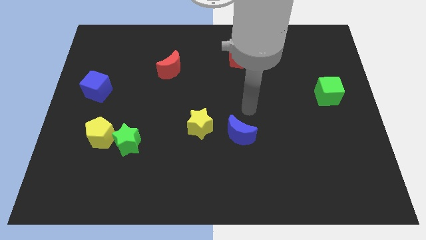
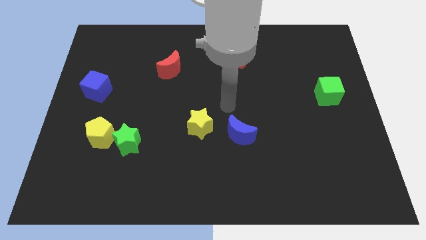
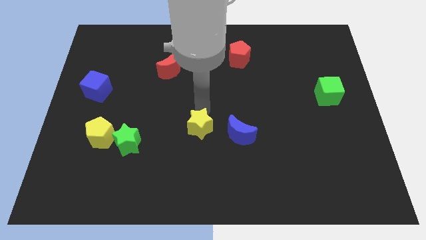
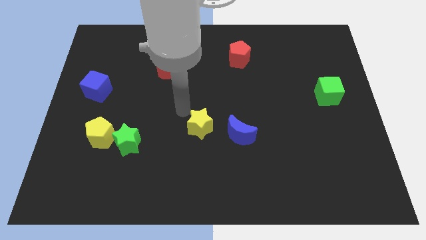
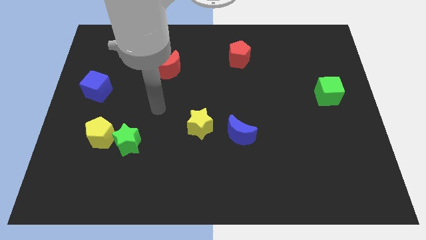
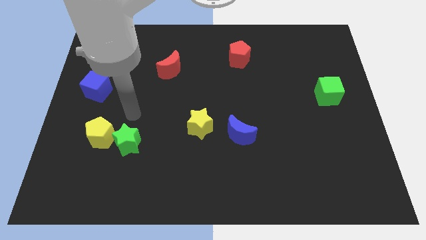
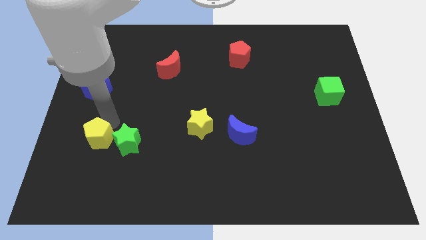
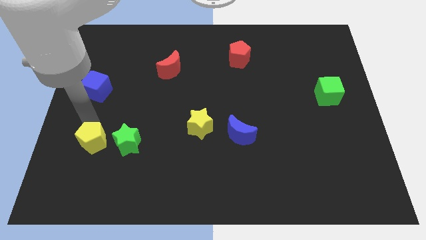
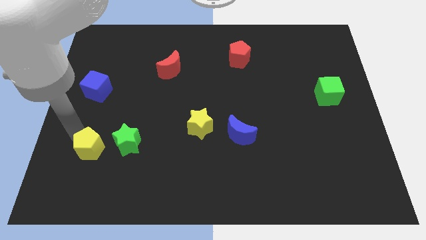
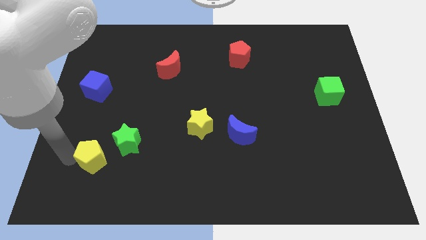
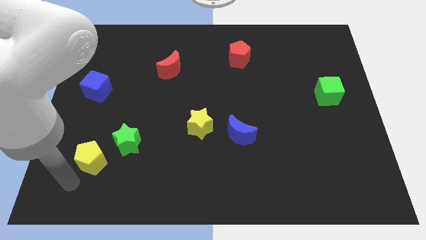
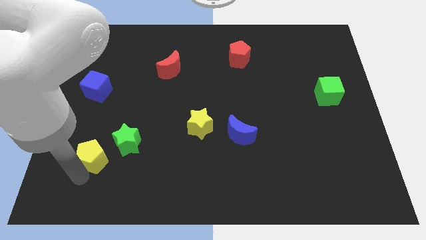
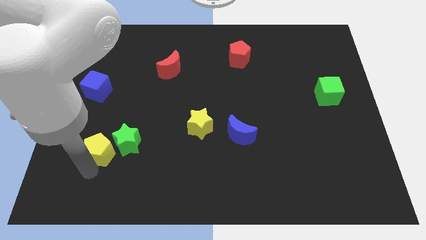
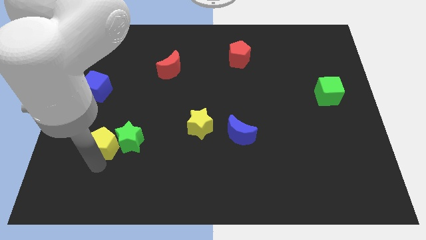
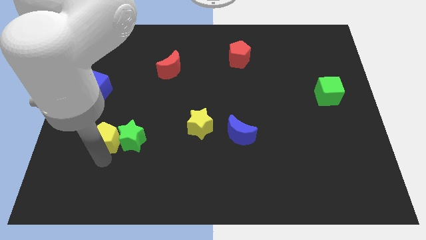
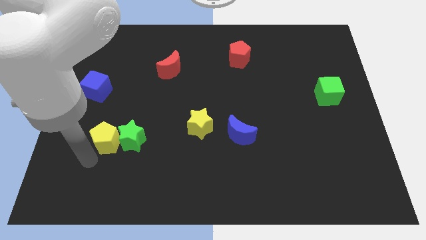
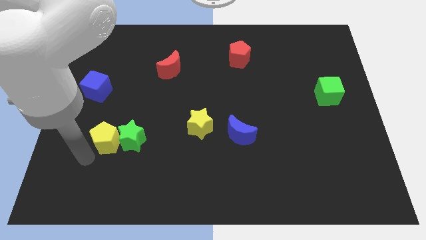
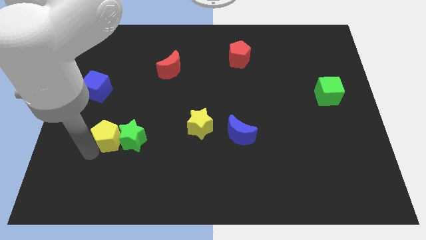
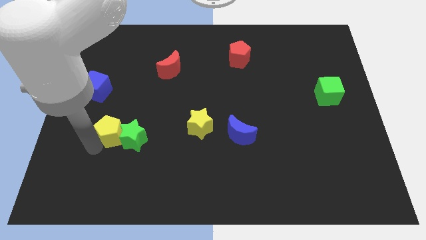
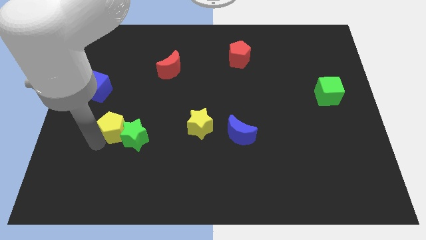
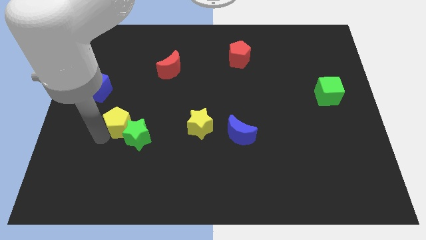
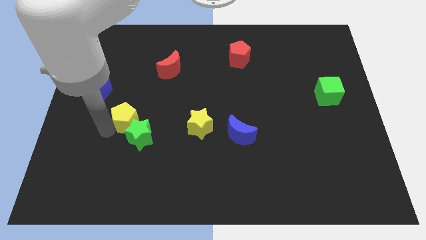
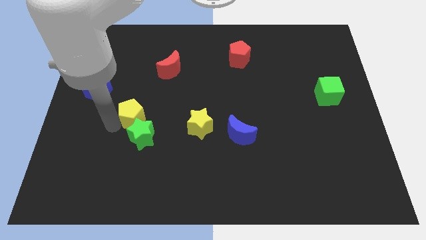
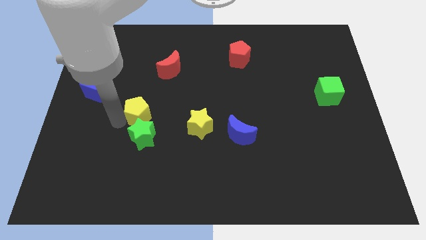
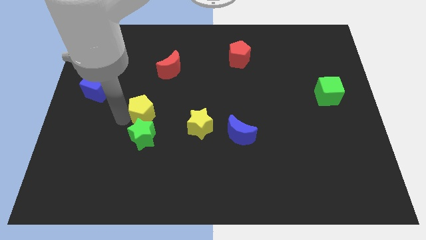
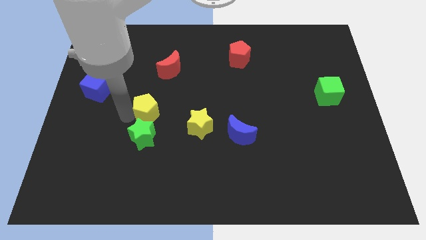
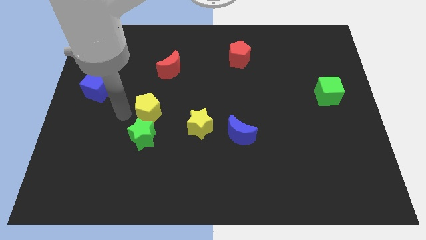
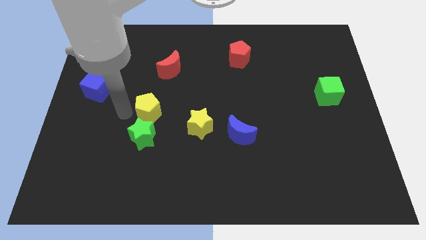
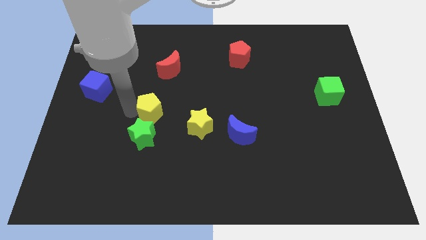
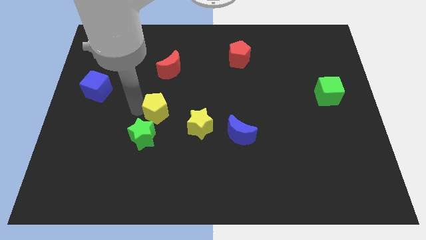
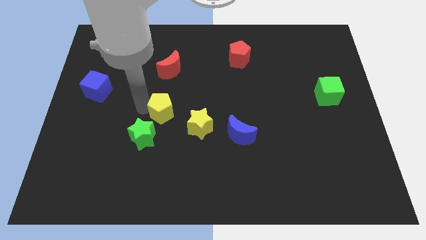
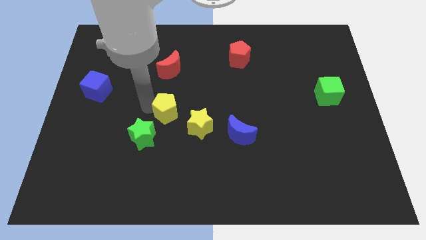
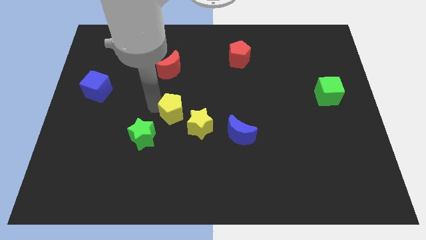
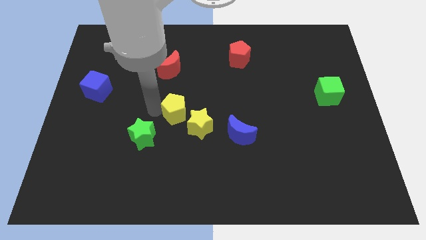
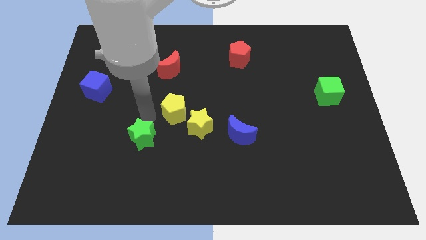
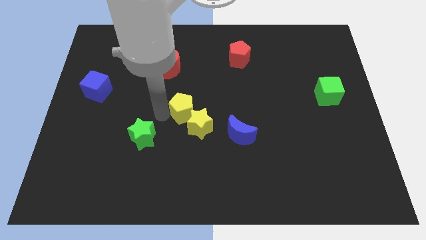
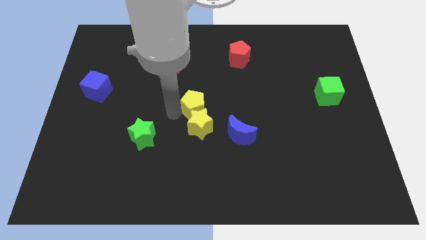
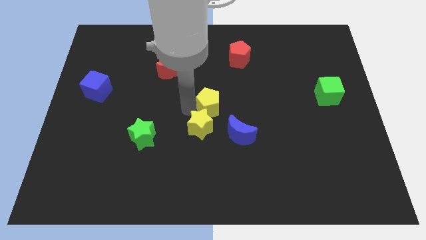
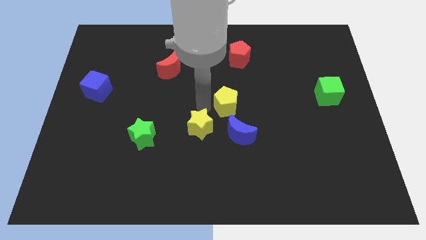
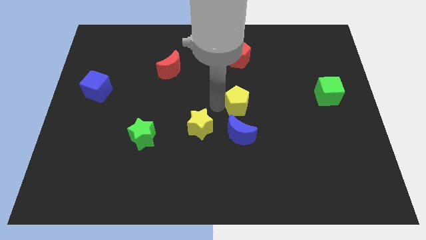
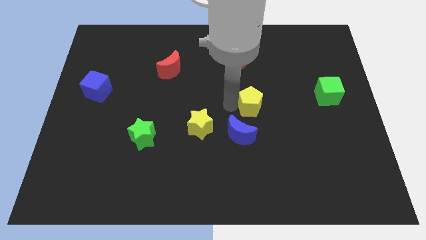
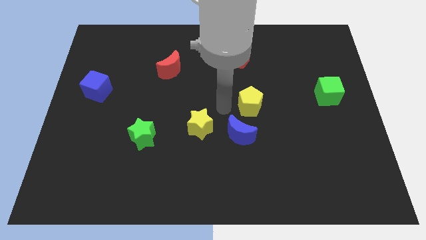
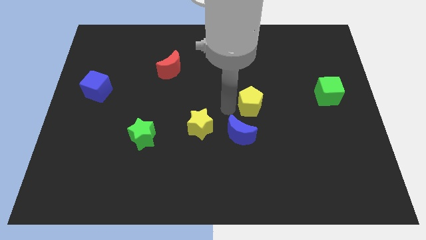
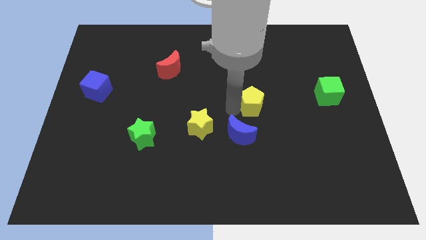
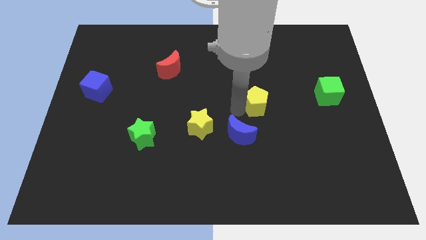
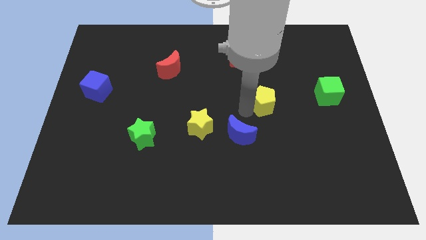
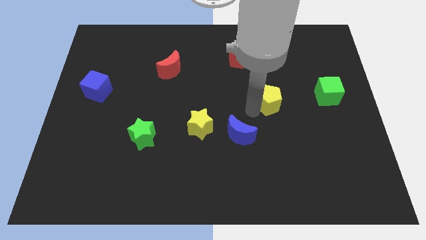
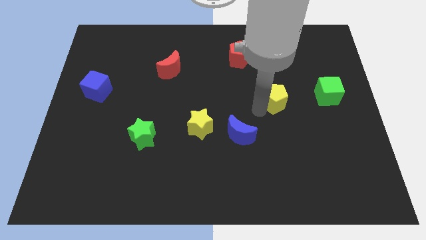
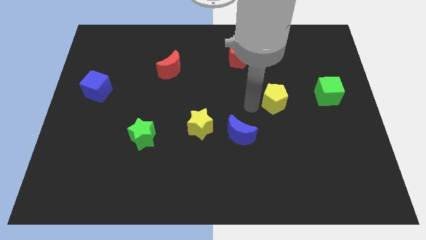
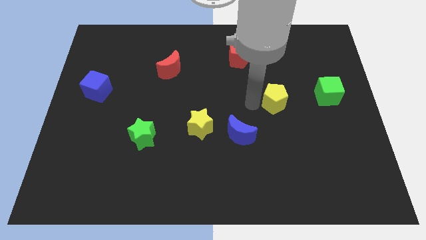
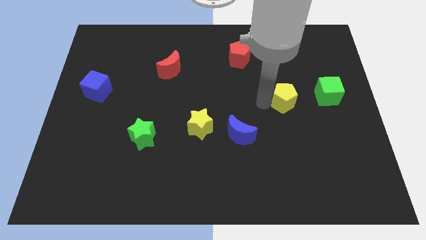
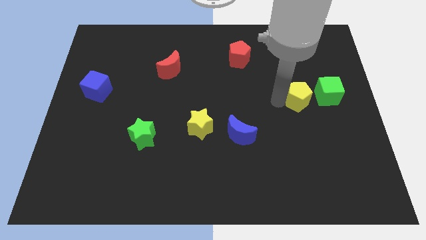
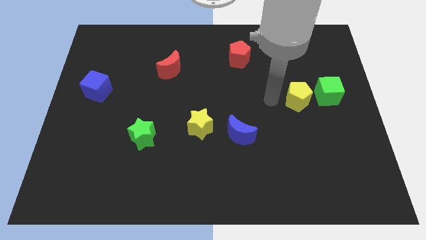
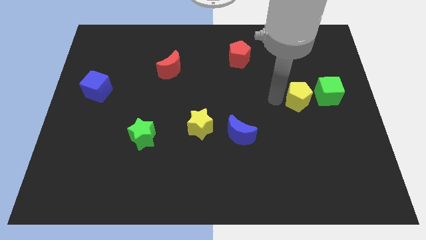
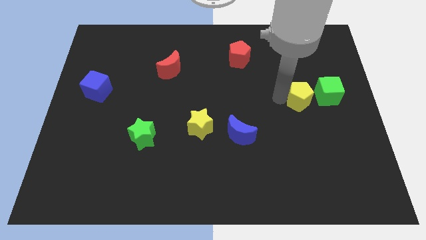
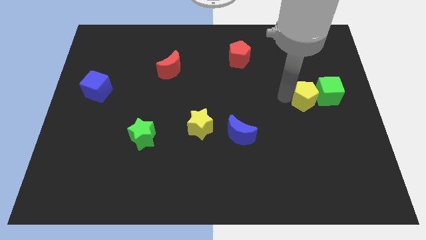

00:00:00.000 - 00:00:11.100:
push the yellow pentagon close to the green cube

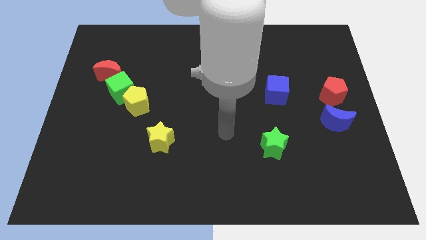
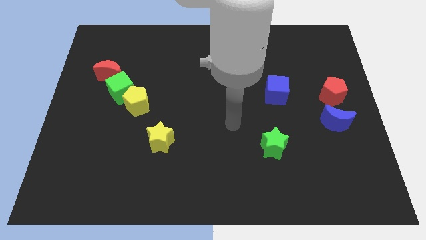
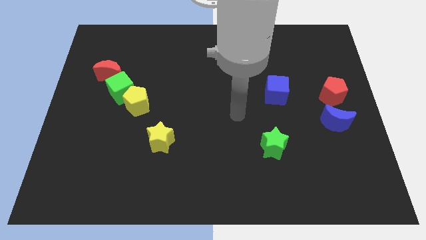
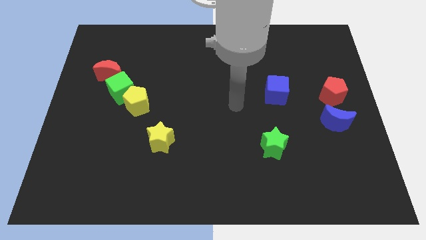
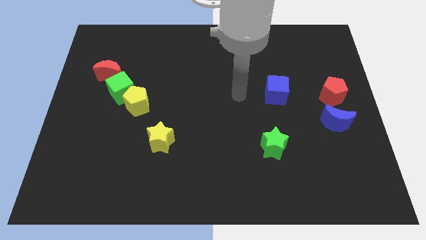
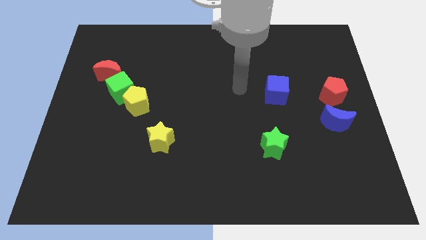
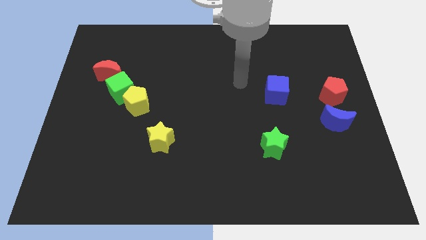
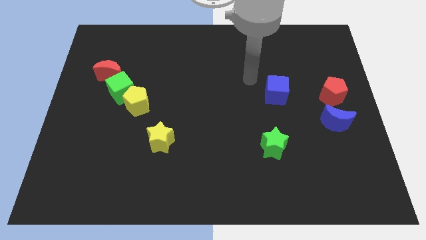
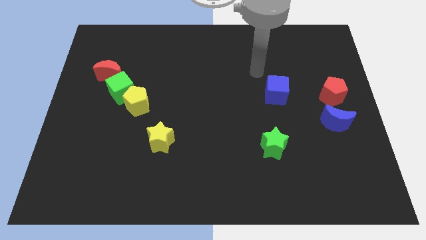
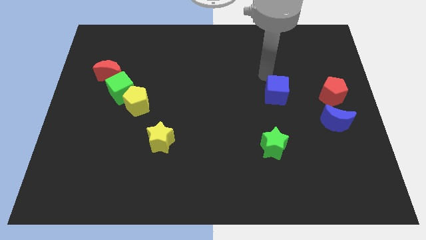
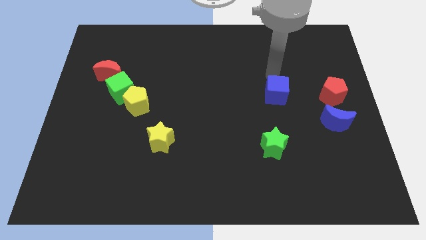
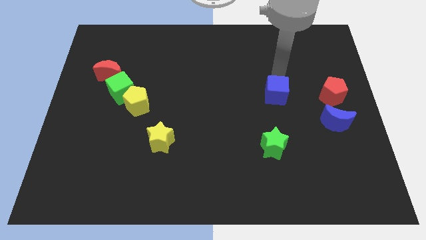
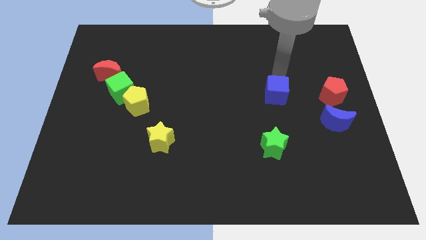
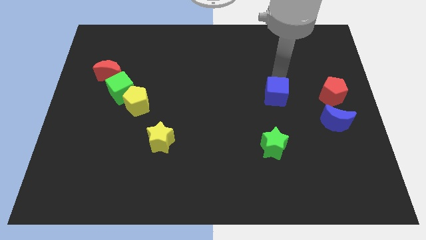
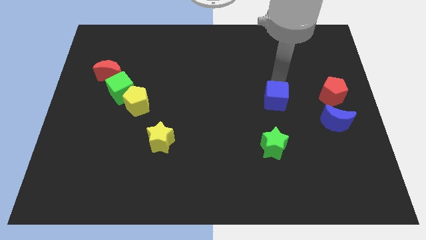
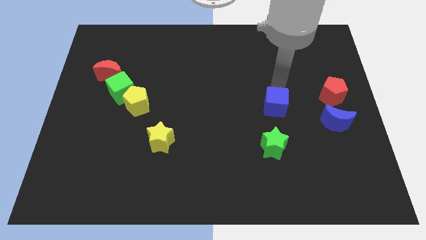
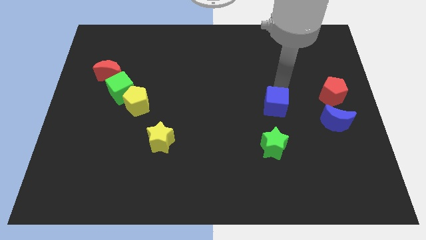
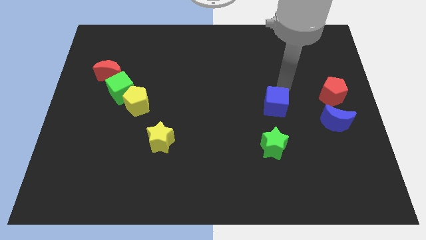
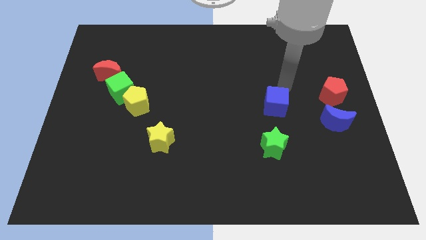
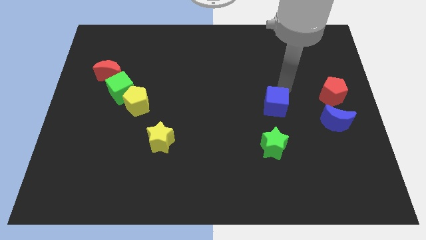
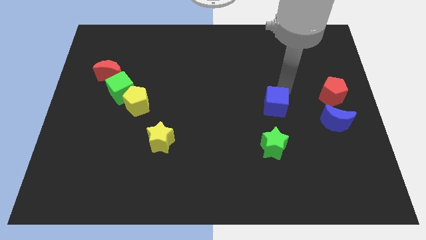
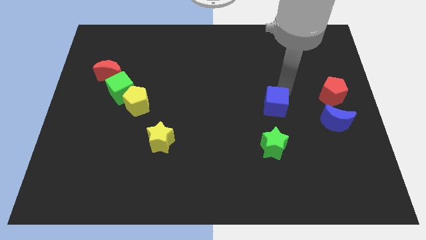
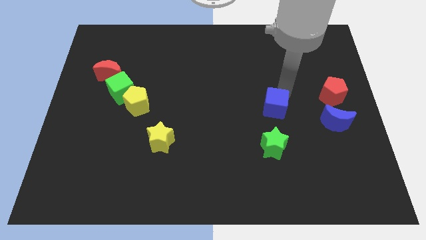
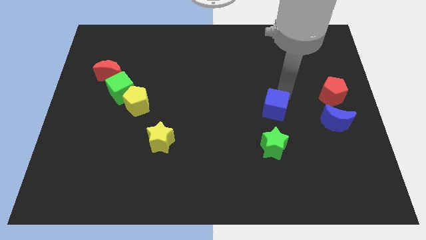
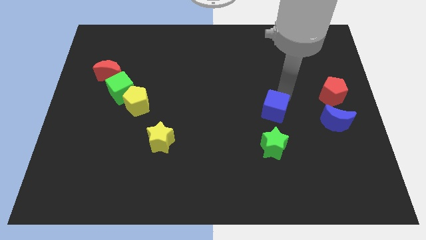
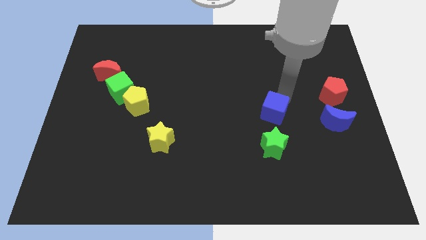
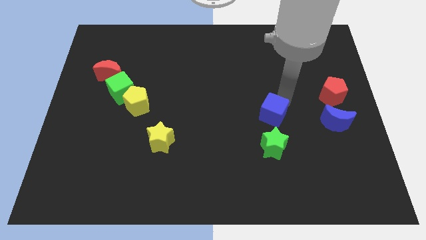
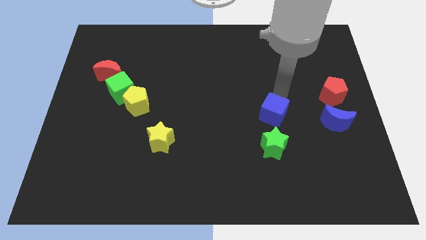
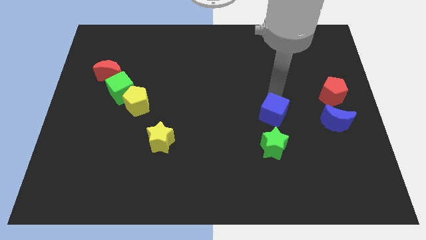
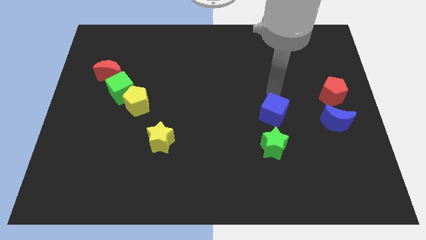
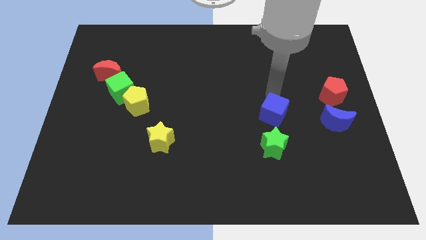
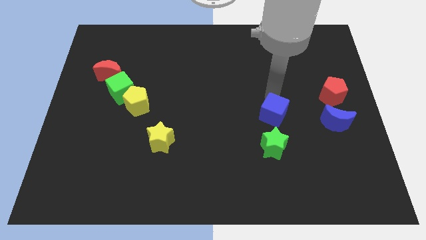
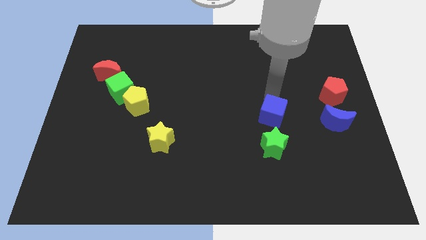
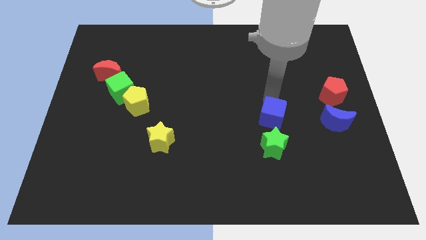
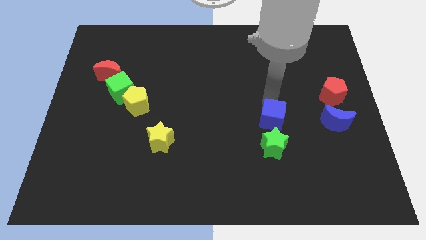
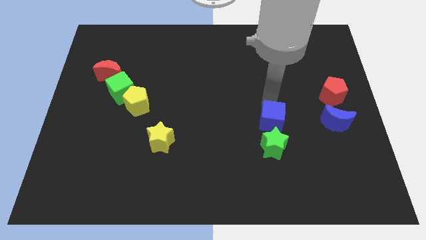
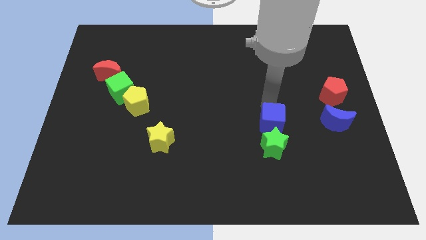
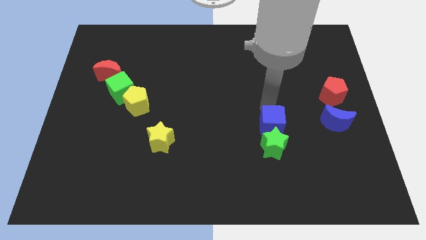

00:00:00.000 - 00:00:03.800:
move the blue cube close to the green star
